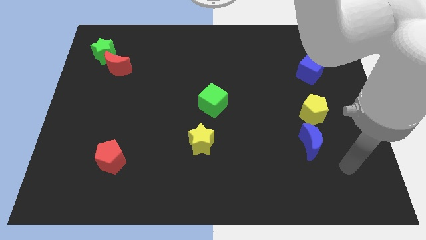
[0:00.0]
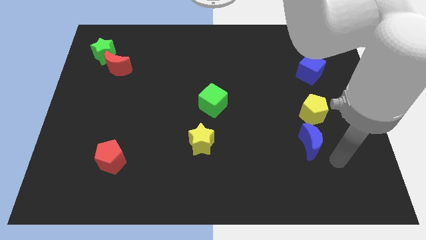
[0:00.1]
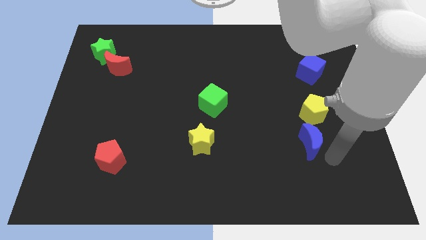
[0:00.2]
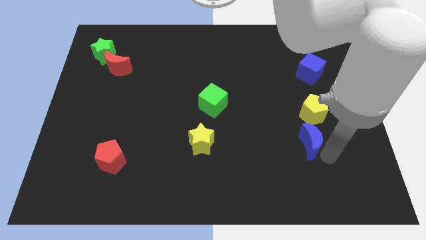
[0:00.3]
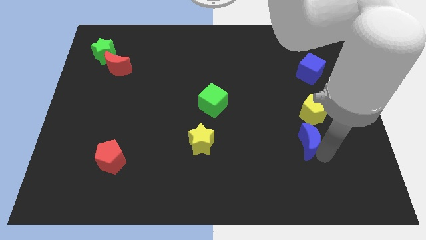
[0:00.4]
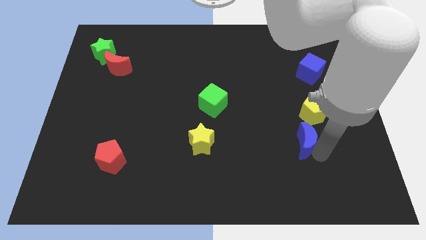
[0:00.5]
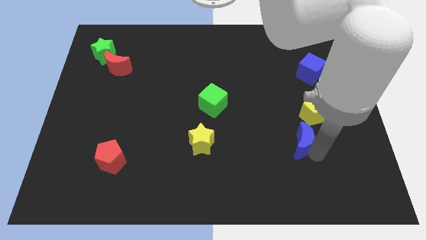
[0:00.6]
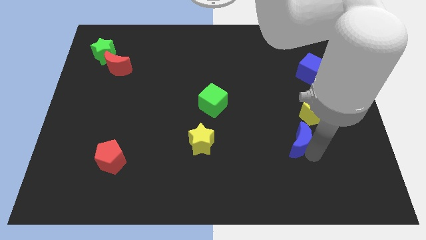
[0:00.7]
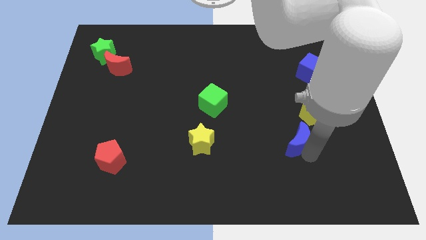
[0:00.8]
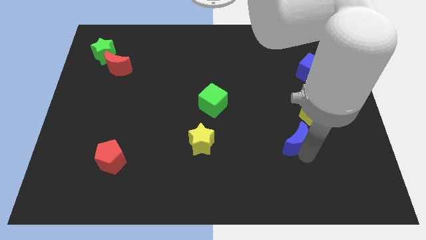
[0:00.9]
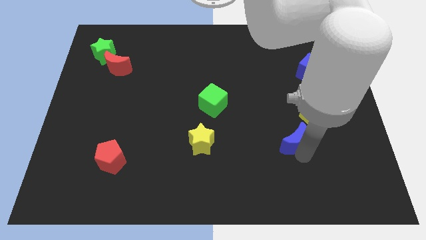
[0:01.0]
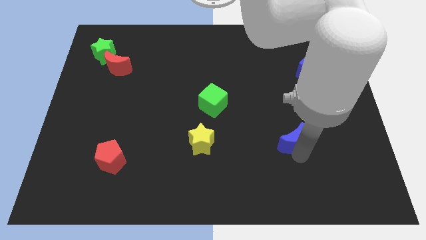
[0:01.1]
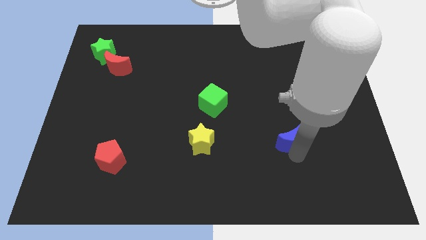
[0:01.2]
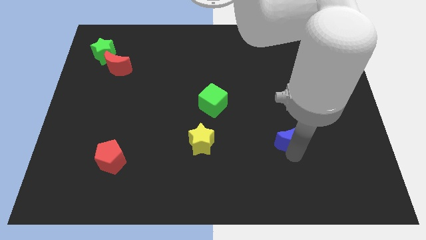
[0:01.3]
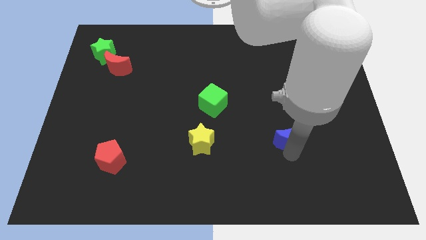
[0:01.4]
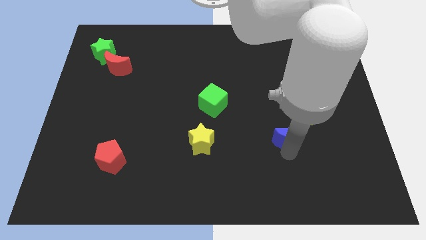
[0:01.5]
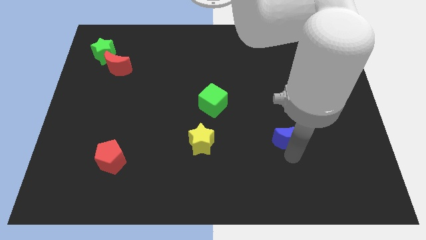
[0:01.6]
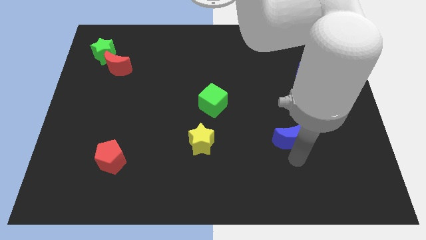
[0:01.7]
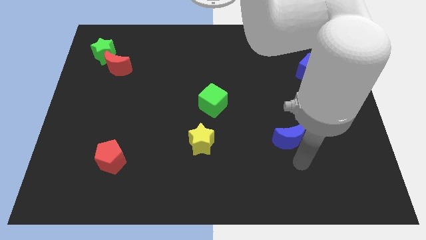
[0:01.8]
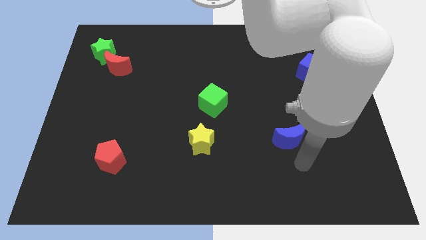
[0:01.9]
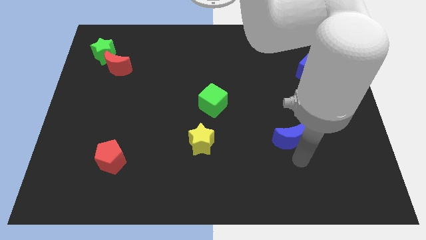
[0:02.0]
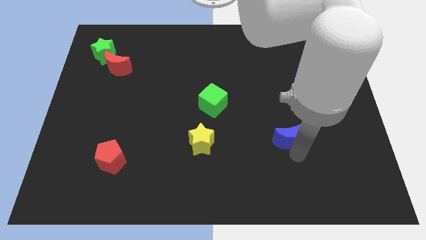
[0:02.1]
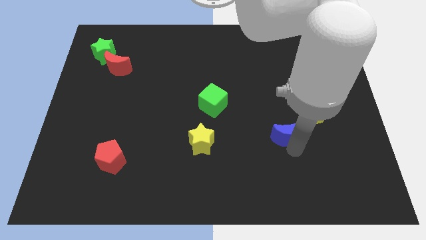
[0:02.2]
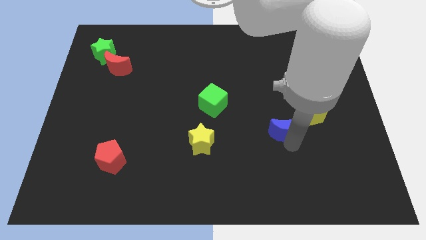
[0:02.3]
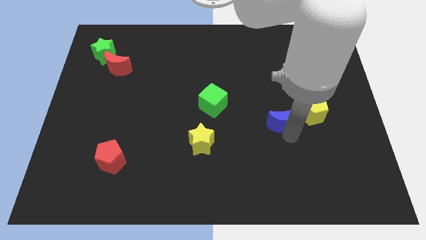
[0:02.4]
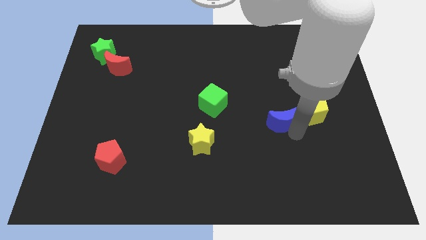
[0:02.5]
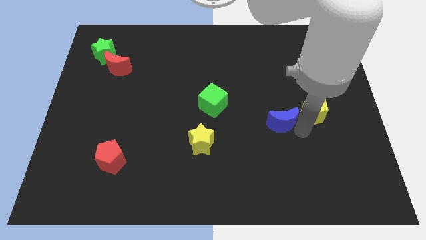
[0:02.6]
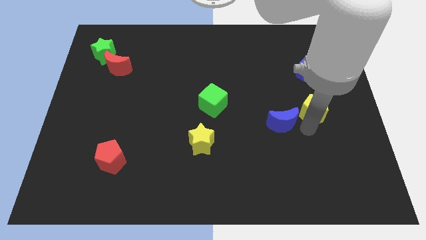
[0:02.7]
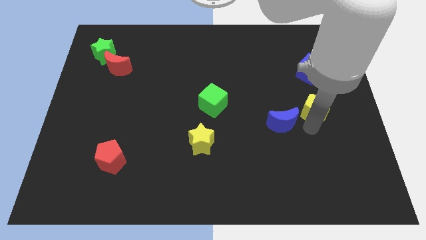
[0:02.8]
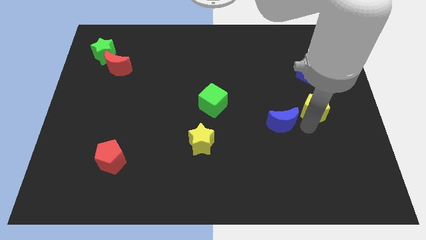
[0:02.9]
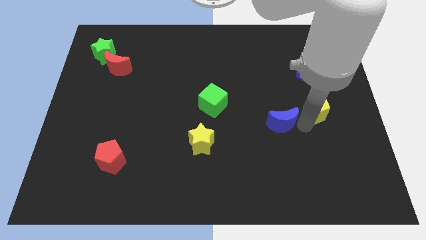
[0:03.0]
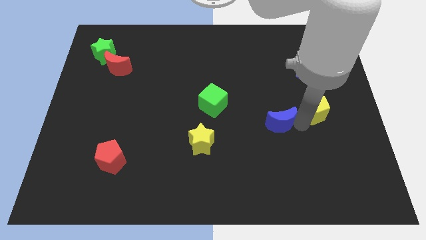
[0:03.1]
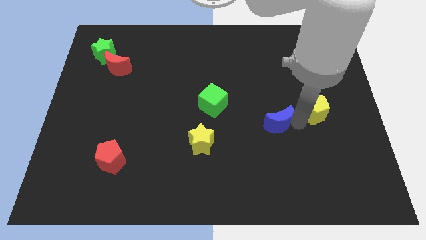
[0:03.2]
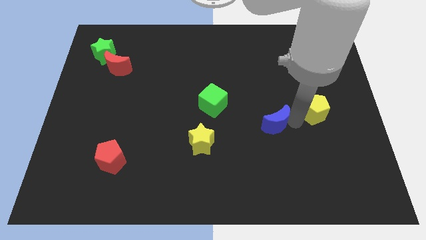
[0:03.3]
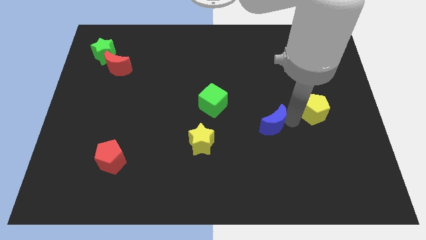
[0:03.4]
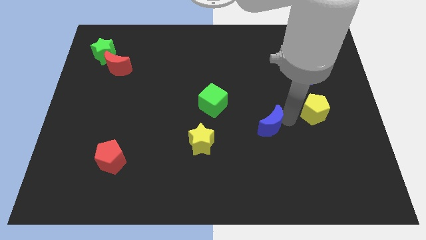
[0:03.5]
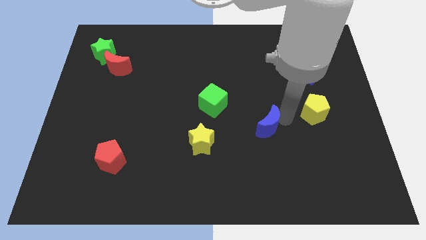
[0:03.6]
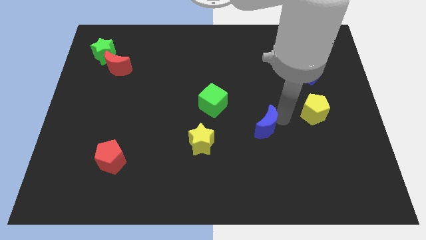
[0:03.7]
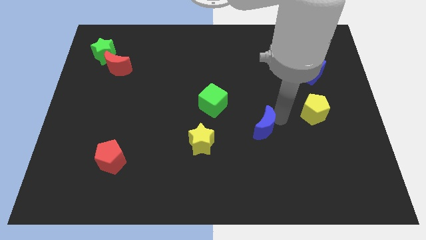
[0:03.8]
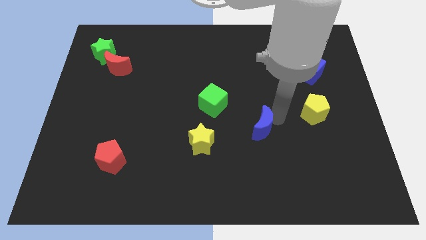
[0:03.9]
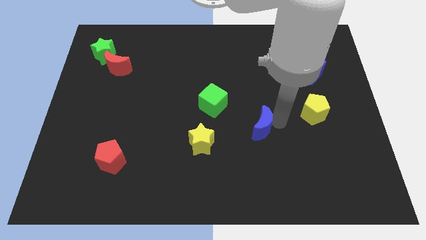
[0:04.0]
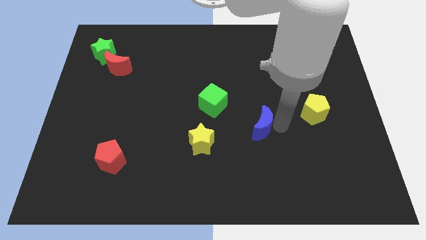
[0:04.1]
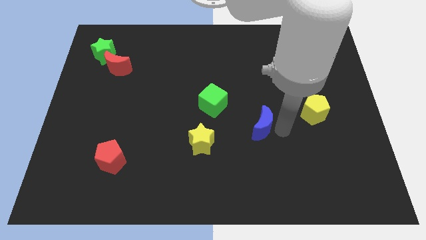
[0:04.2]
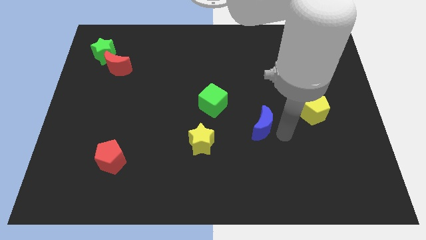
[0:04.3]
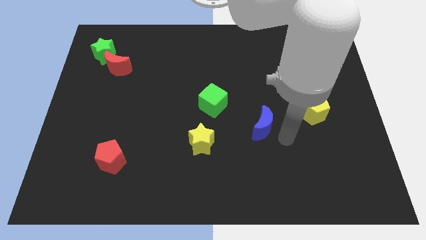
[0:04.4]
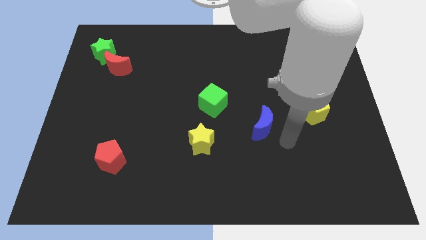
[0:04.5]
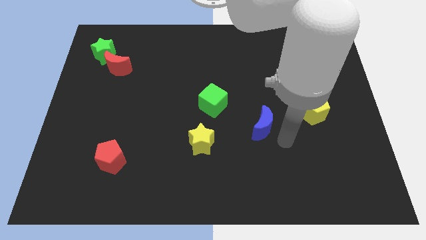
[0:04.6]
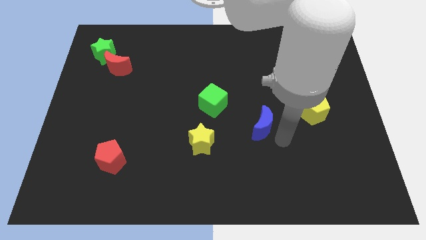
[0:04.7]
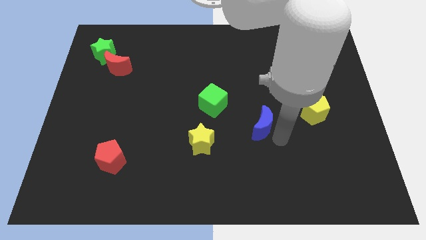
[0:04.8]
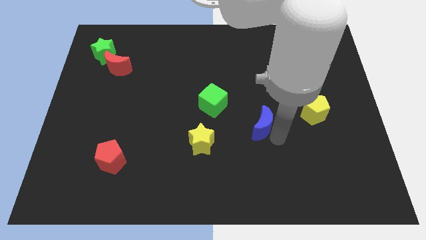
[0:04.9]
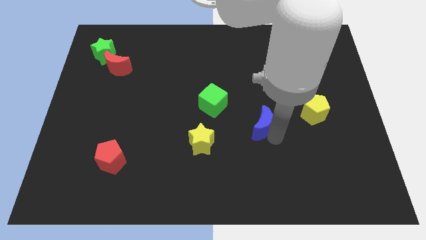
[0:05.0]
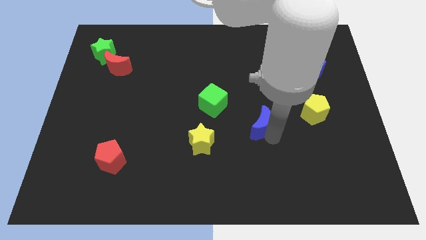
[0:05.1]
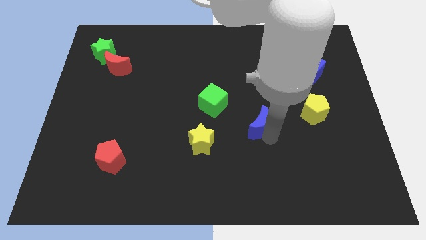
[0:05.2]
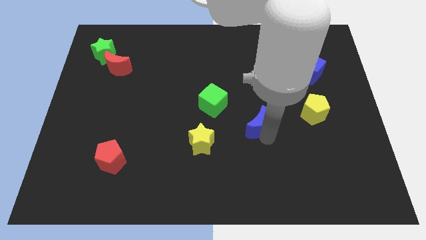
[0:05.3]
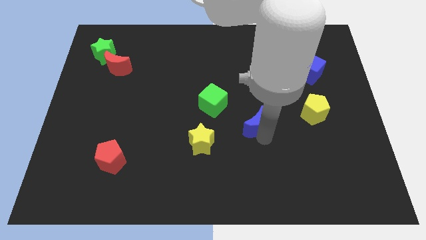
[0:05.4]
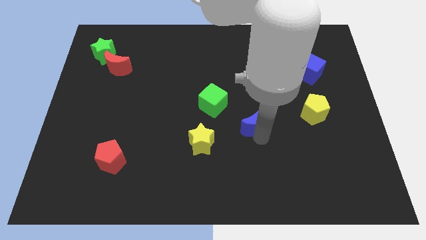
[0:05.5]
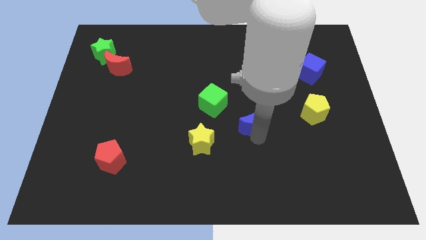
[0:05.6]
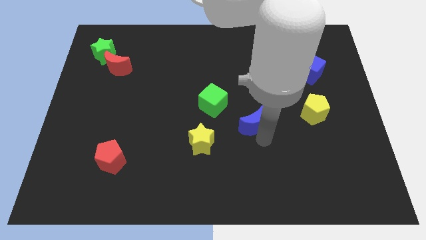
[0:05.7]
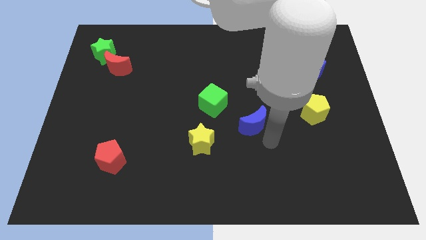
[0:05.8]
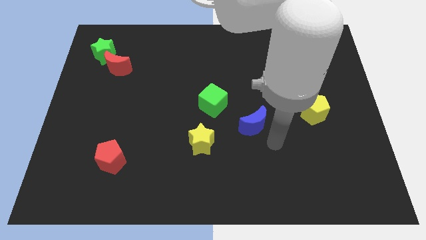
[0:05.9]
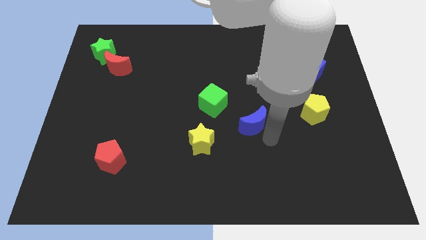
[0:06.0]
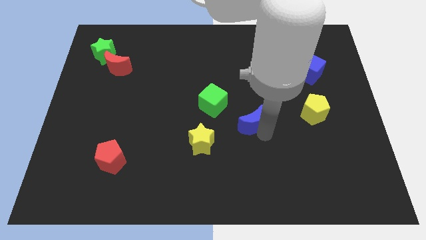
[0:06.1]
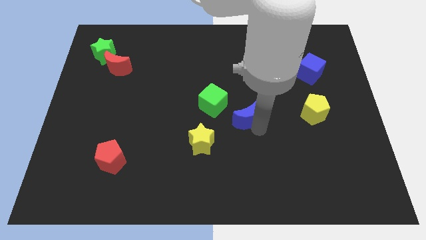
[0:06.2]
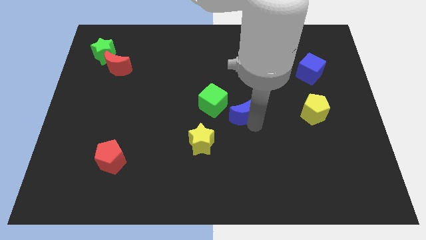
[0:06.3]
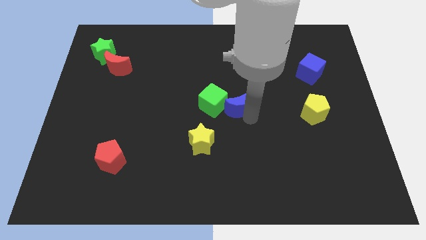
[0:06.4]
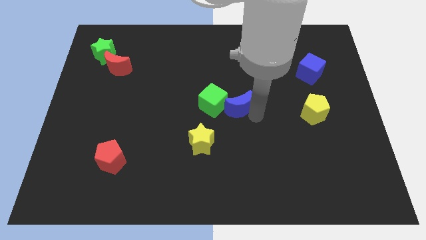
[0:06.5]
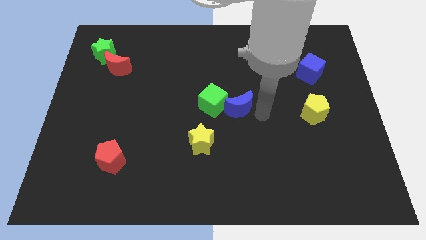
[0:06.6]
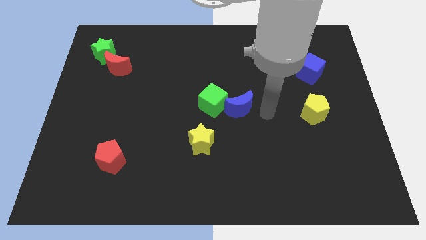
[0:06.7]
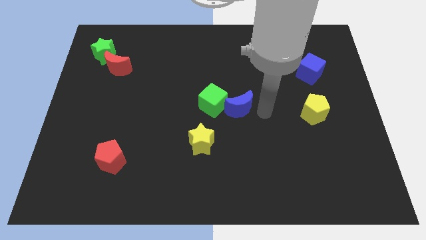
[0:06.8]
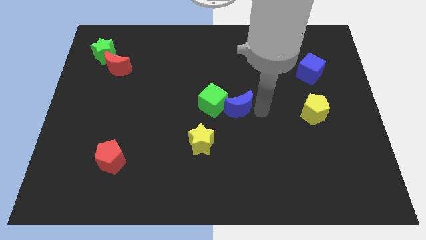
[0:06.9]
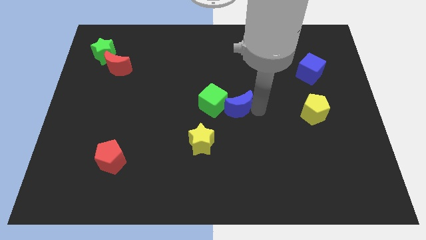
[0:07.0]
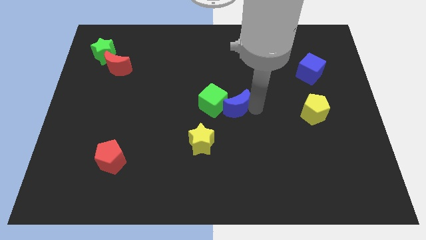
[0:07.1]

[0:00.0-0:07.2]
push the blue moon close to the green cube

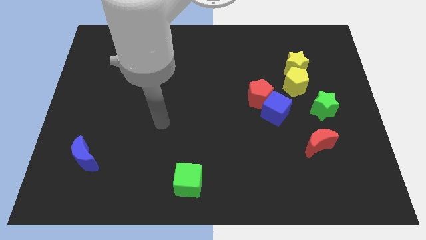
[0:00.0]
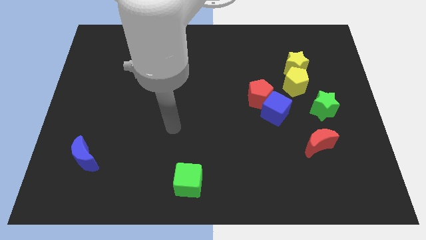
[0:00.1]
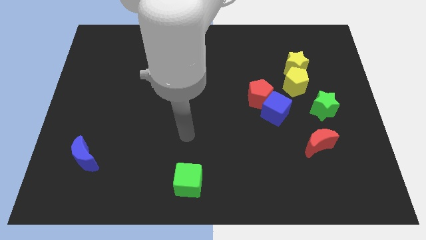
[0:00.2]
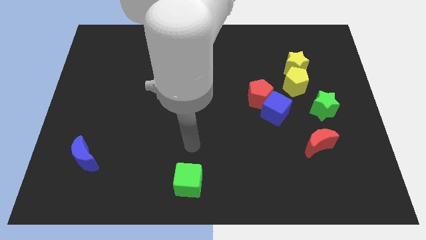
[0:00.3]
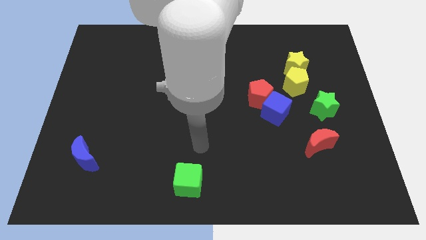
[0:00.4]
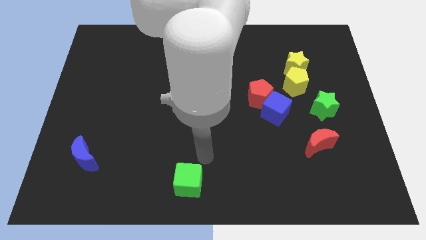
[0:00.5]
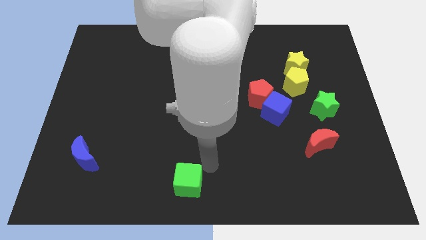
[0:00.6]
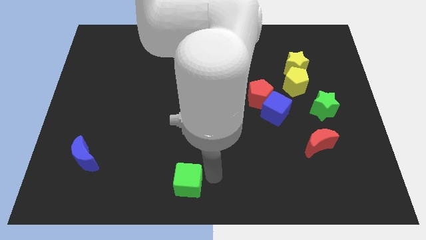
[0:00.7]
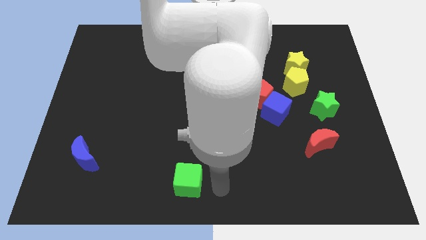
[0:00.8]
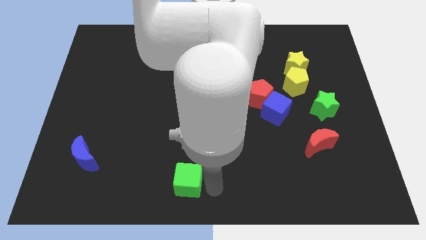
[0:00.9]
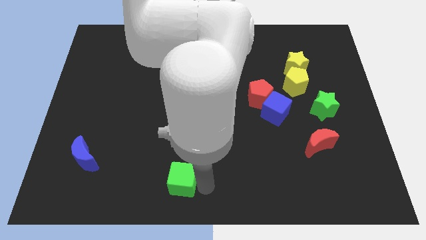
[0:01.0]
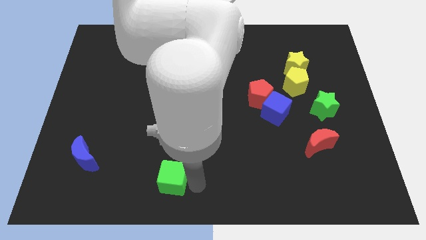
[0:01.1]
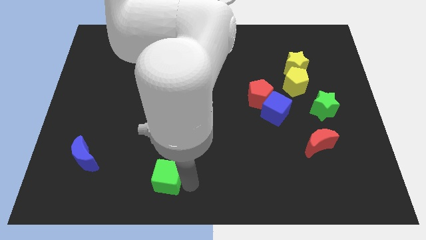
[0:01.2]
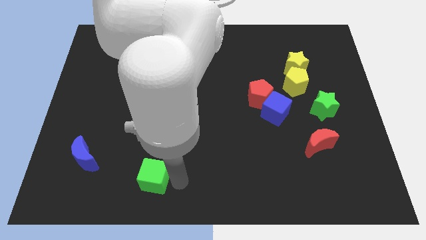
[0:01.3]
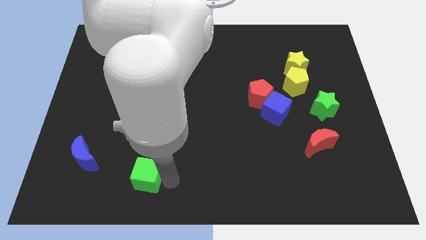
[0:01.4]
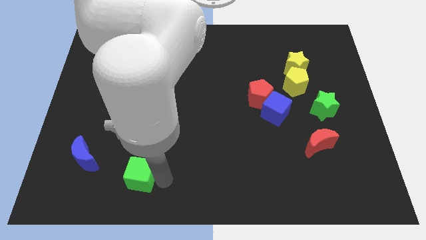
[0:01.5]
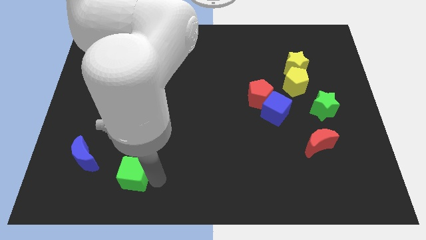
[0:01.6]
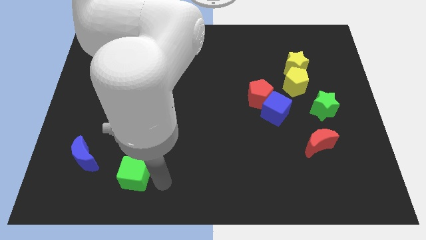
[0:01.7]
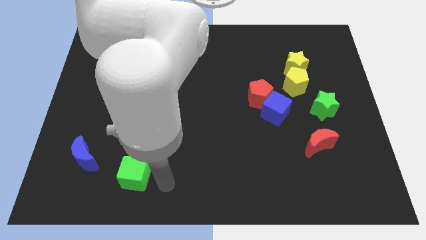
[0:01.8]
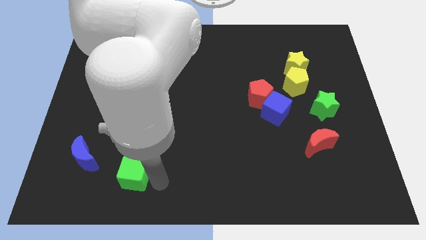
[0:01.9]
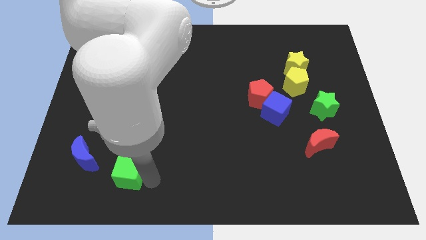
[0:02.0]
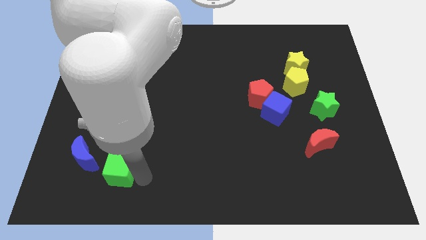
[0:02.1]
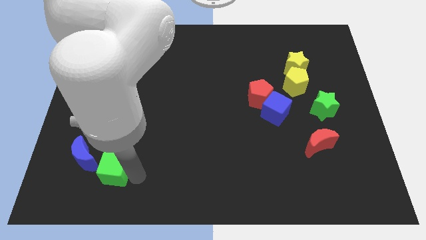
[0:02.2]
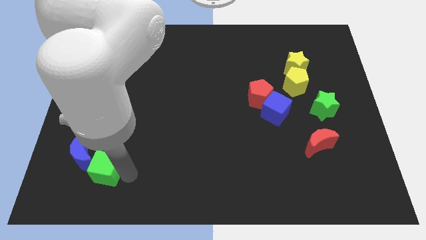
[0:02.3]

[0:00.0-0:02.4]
put the green cube close to the blue moon
